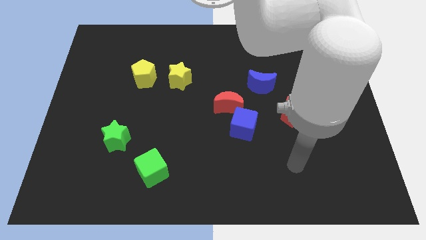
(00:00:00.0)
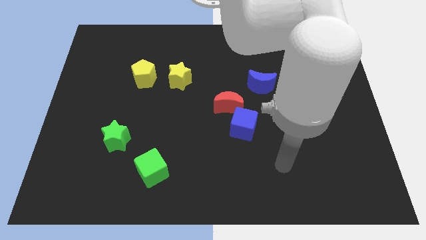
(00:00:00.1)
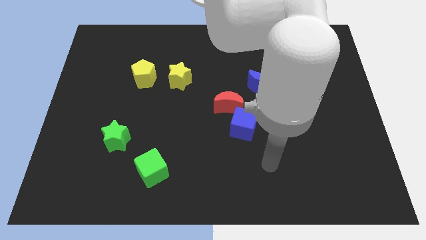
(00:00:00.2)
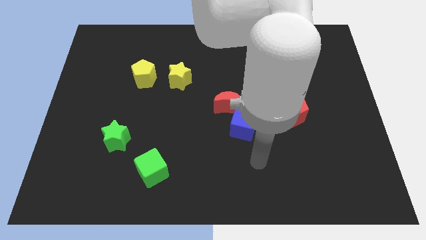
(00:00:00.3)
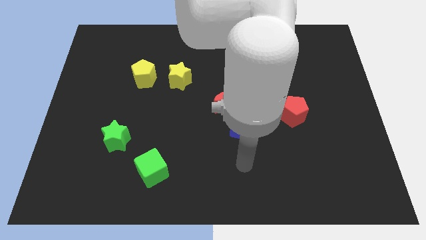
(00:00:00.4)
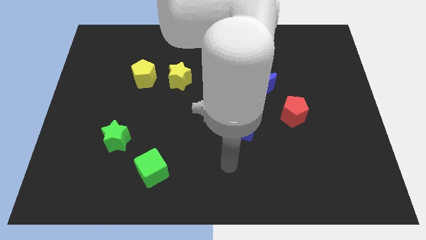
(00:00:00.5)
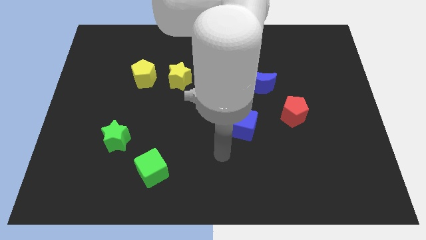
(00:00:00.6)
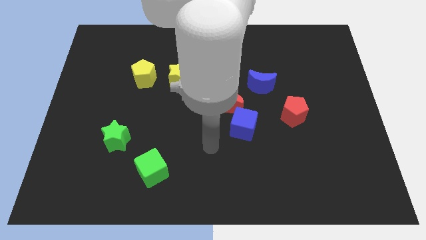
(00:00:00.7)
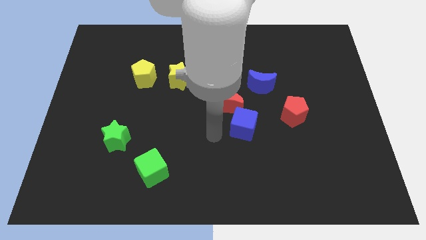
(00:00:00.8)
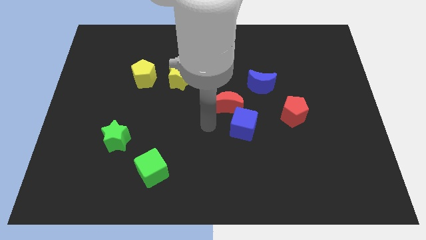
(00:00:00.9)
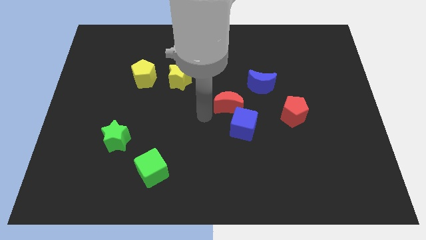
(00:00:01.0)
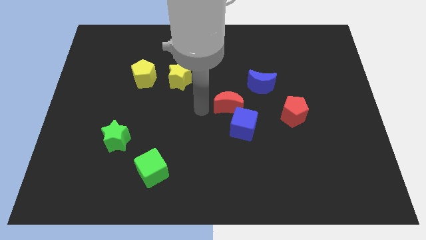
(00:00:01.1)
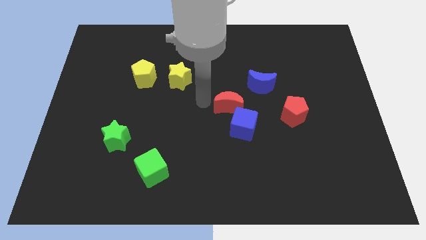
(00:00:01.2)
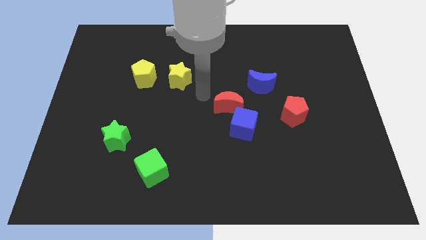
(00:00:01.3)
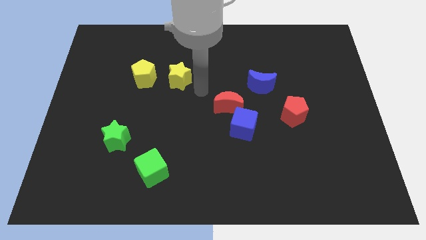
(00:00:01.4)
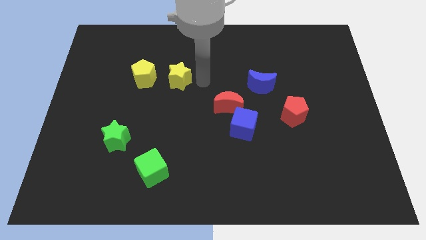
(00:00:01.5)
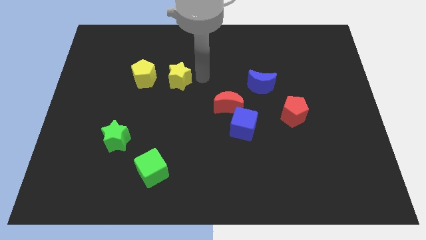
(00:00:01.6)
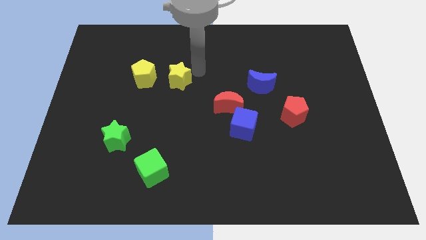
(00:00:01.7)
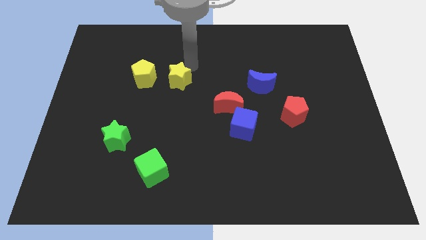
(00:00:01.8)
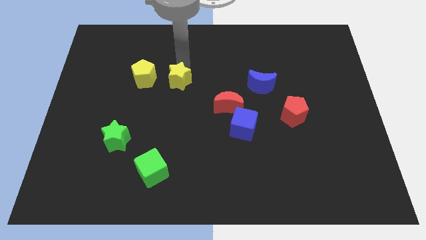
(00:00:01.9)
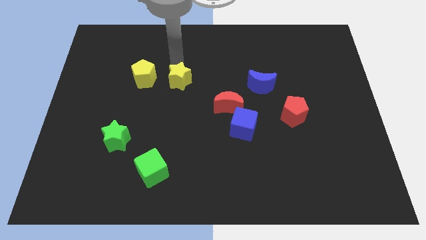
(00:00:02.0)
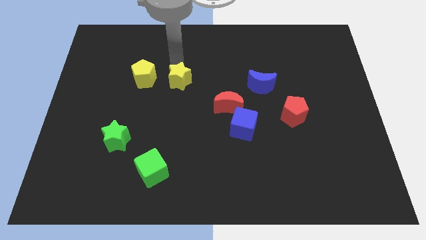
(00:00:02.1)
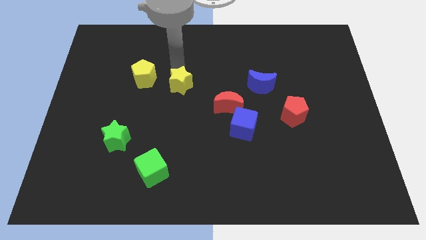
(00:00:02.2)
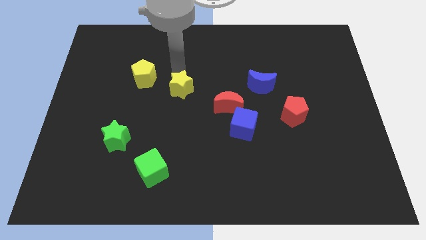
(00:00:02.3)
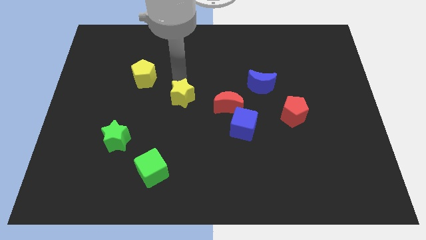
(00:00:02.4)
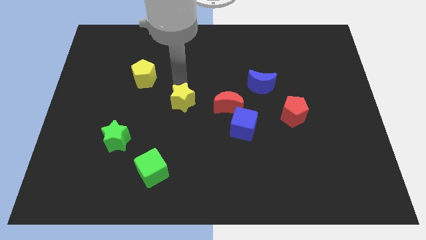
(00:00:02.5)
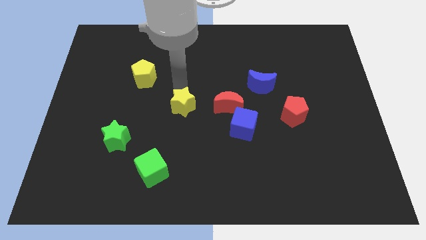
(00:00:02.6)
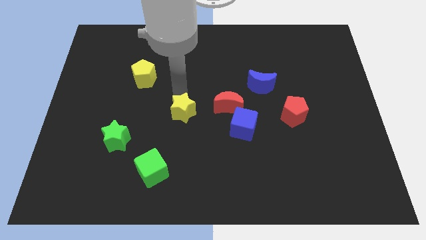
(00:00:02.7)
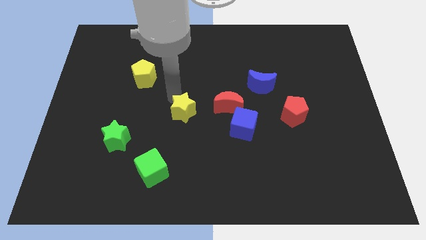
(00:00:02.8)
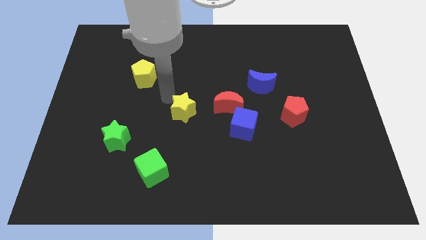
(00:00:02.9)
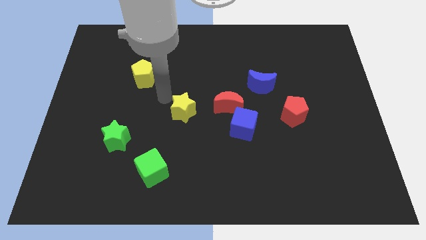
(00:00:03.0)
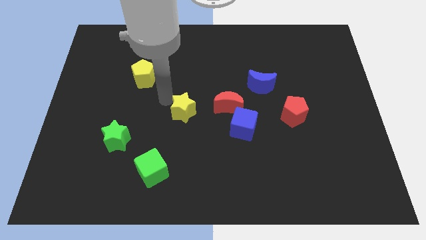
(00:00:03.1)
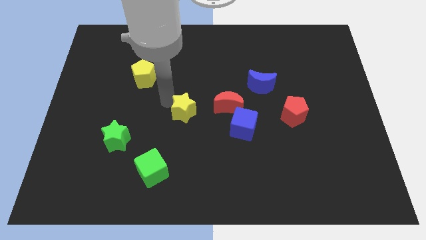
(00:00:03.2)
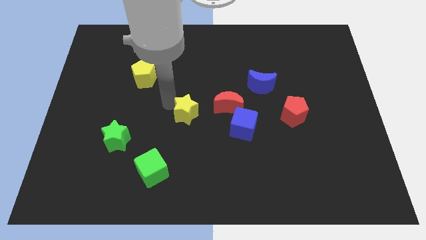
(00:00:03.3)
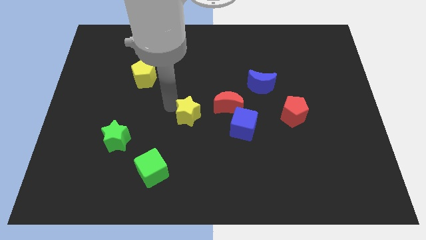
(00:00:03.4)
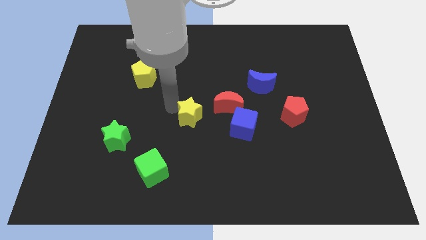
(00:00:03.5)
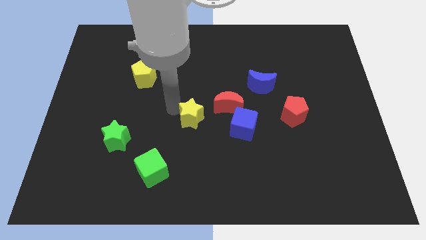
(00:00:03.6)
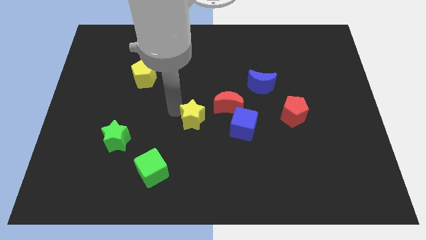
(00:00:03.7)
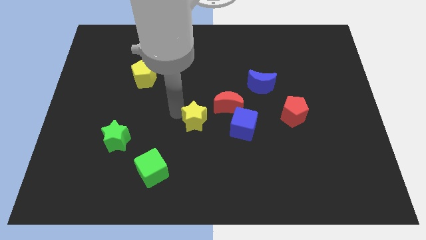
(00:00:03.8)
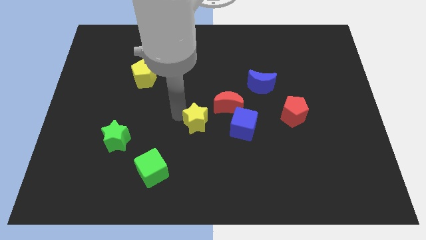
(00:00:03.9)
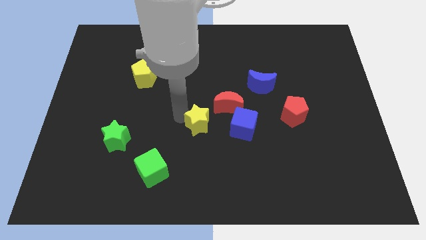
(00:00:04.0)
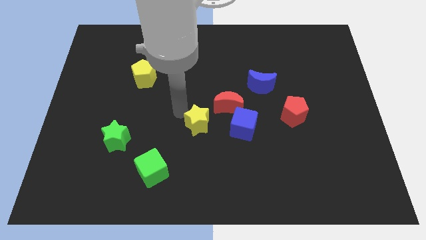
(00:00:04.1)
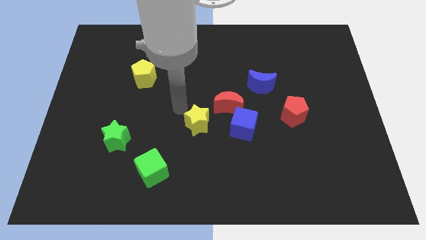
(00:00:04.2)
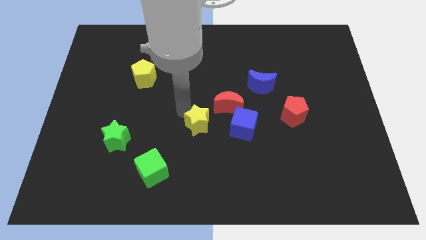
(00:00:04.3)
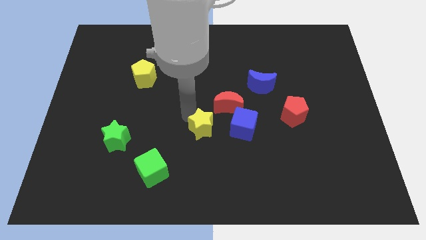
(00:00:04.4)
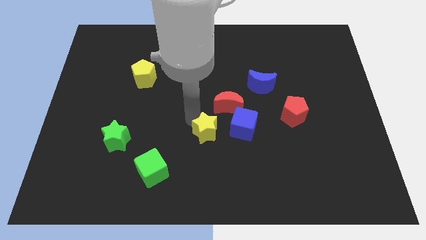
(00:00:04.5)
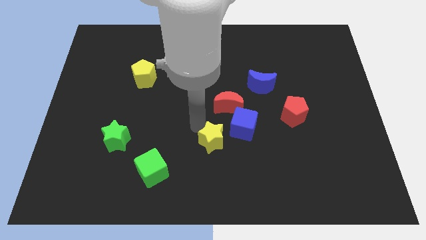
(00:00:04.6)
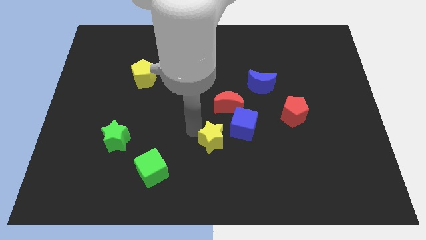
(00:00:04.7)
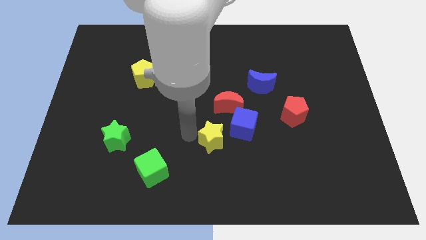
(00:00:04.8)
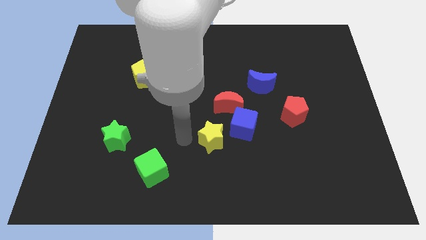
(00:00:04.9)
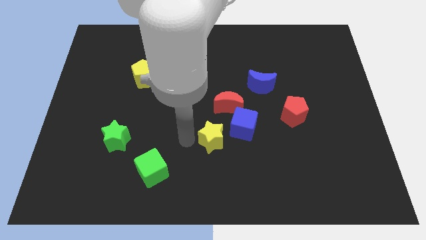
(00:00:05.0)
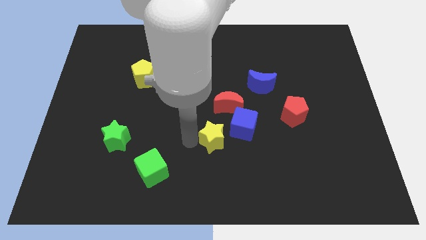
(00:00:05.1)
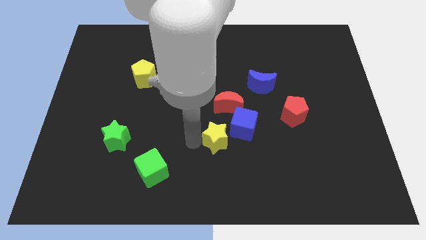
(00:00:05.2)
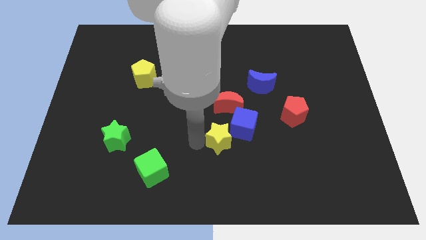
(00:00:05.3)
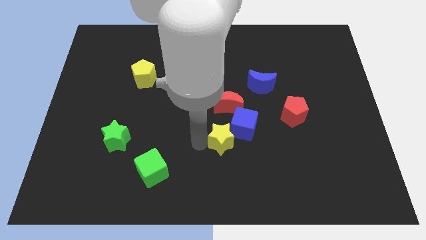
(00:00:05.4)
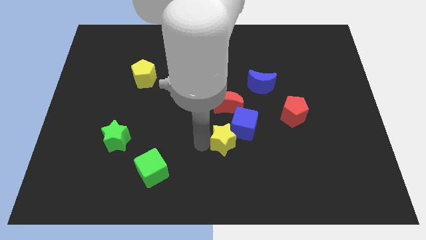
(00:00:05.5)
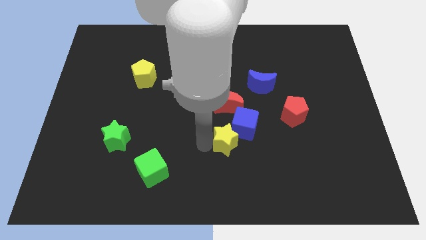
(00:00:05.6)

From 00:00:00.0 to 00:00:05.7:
move the yellow star diagonally downwards and to the right

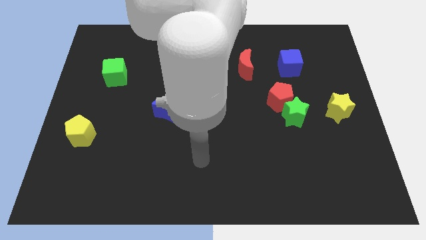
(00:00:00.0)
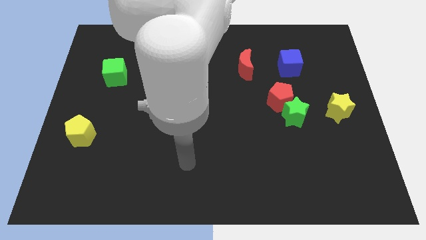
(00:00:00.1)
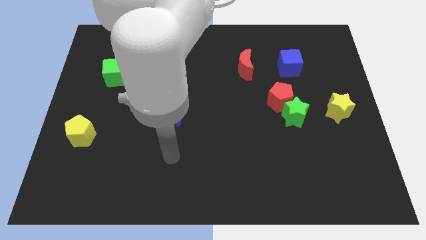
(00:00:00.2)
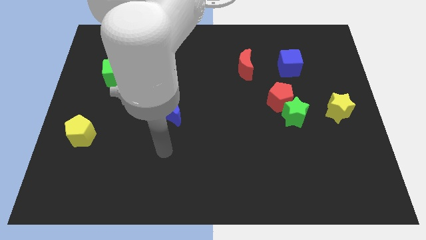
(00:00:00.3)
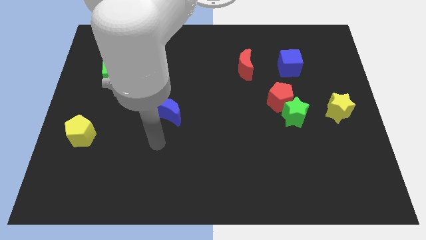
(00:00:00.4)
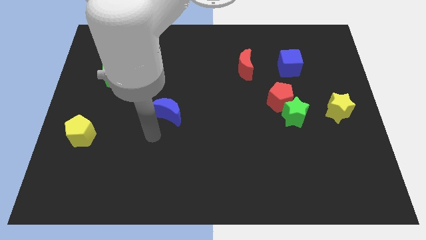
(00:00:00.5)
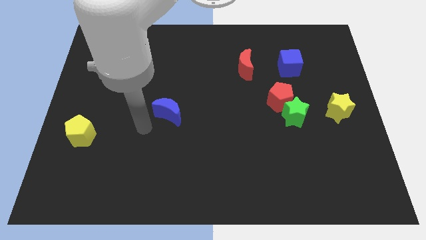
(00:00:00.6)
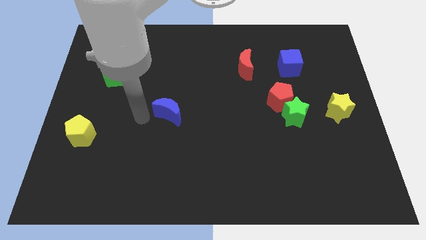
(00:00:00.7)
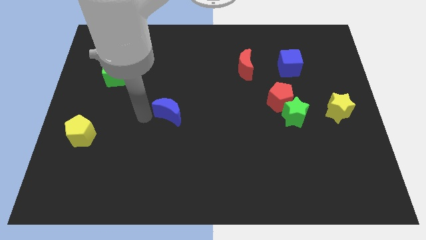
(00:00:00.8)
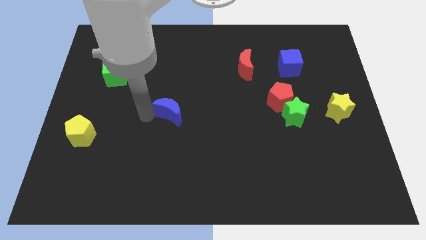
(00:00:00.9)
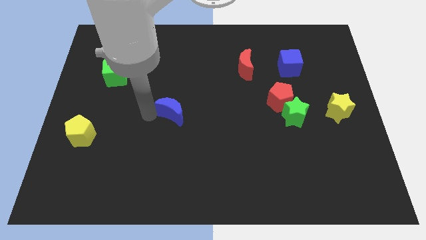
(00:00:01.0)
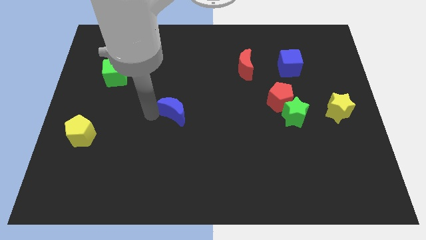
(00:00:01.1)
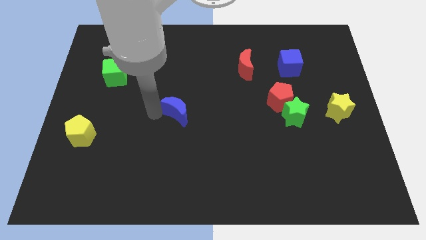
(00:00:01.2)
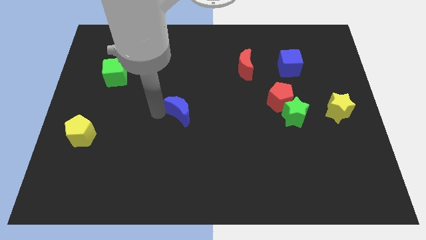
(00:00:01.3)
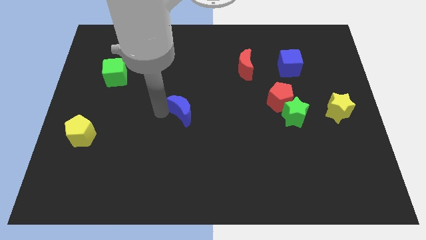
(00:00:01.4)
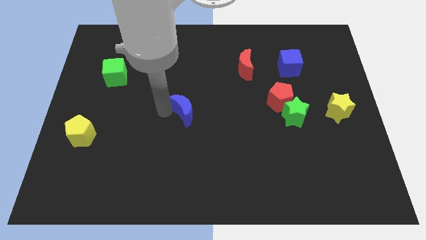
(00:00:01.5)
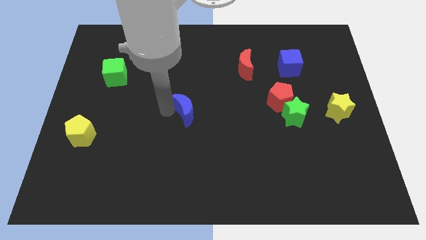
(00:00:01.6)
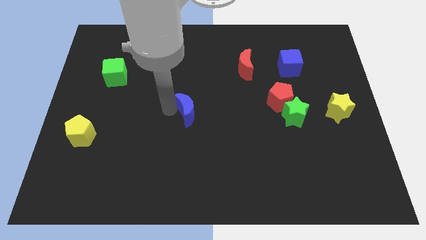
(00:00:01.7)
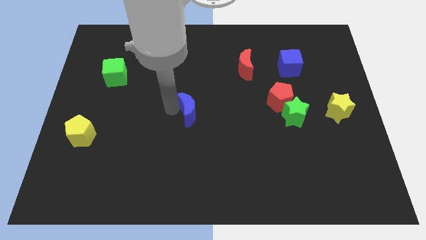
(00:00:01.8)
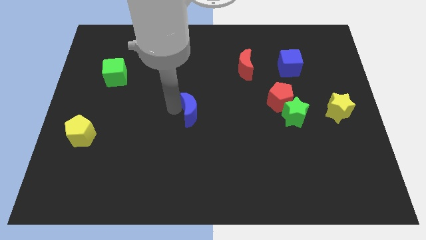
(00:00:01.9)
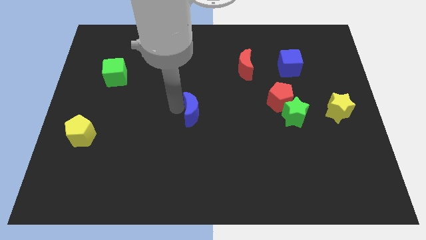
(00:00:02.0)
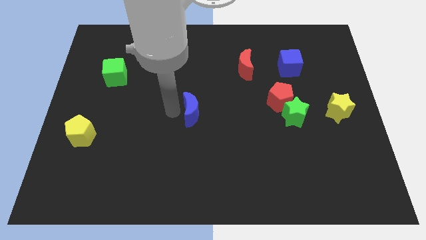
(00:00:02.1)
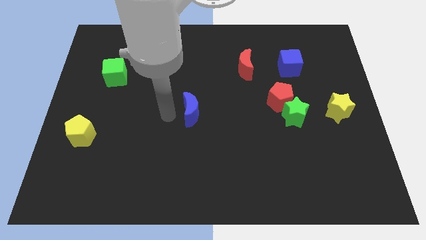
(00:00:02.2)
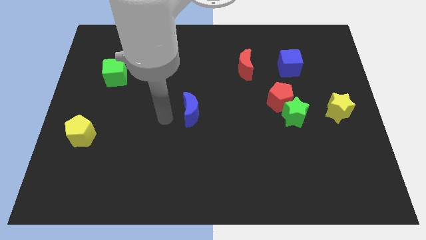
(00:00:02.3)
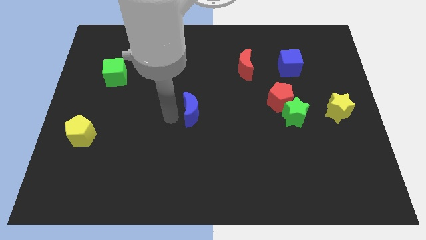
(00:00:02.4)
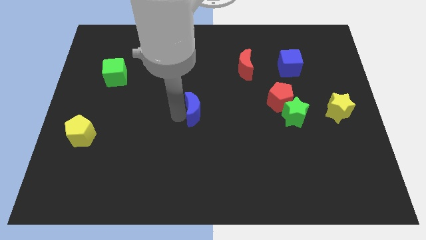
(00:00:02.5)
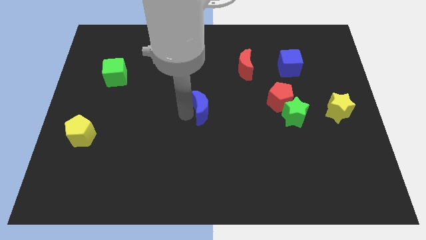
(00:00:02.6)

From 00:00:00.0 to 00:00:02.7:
push the blue moon a bit to the right
